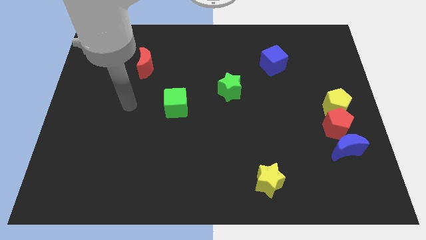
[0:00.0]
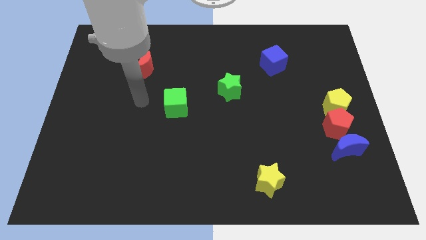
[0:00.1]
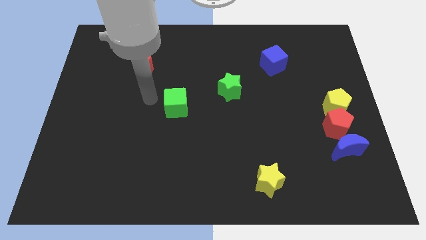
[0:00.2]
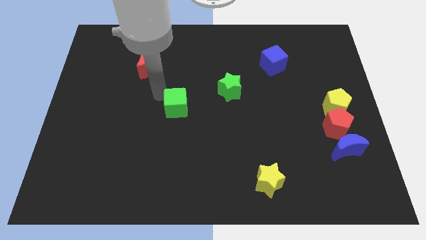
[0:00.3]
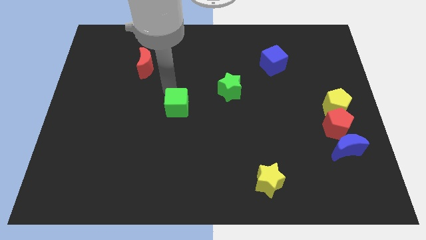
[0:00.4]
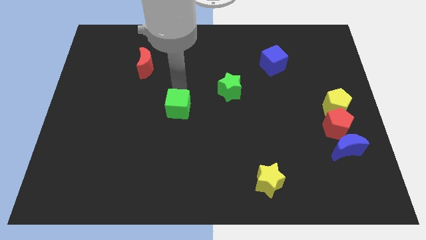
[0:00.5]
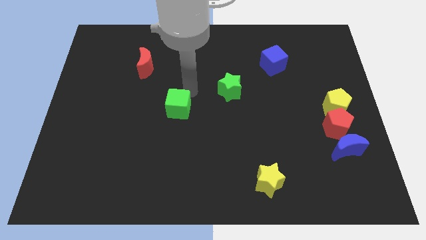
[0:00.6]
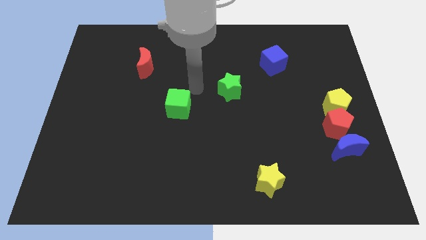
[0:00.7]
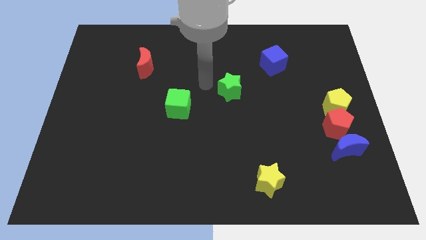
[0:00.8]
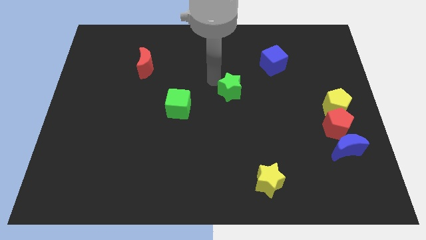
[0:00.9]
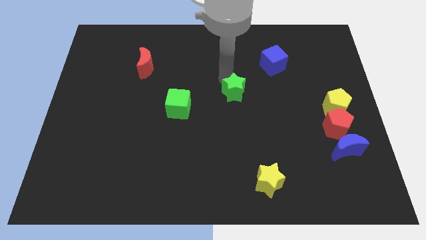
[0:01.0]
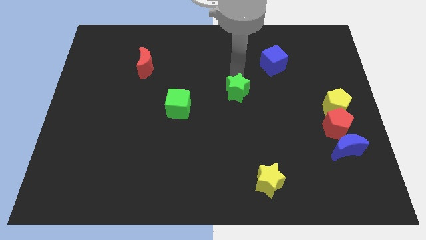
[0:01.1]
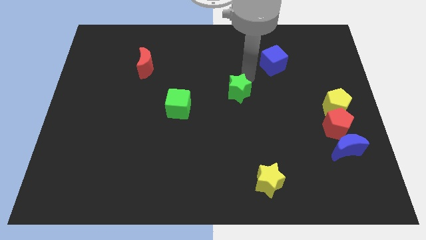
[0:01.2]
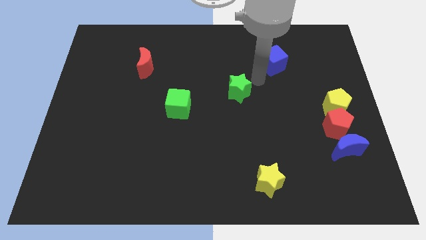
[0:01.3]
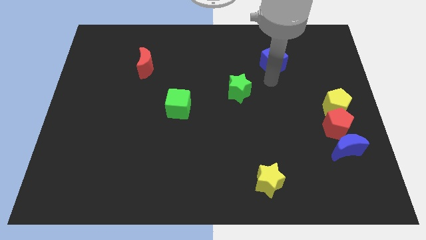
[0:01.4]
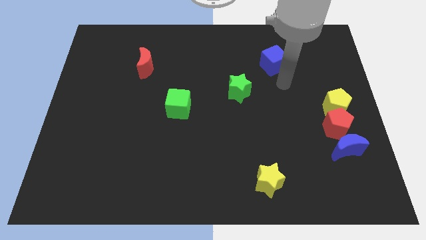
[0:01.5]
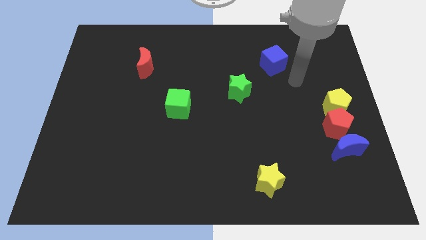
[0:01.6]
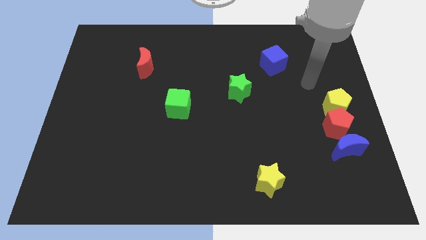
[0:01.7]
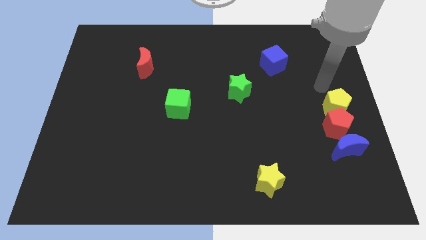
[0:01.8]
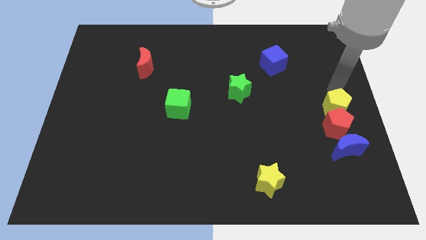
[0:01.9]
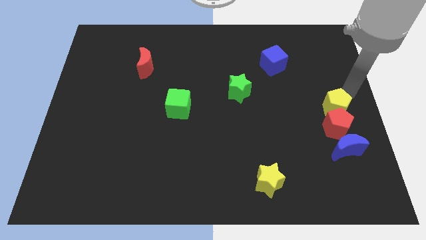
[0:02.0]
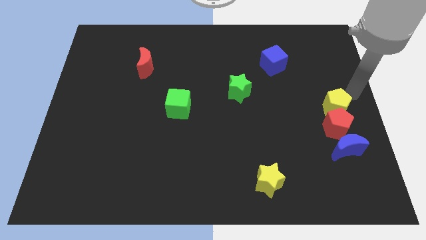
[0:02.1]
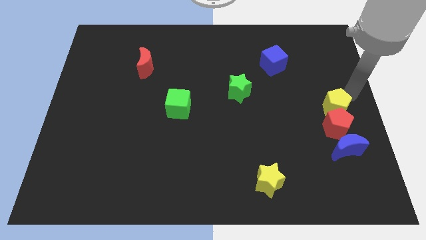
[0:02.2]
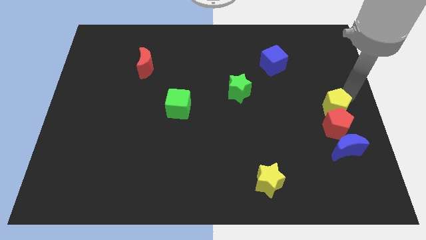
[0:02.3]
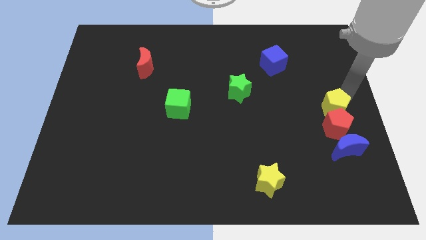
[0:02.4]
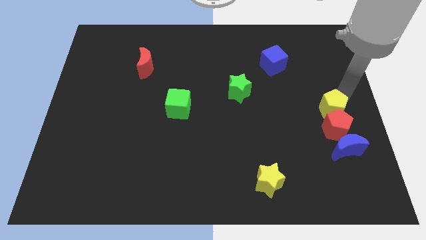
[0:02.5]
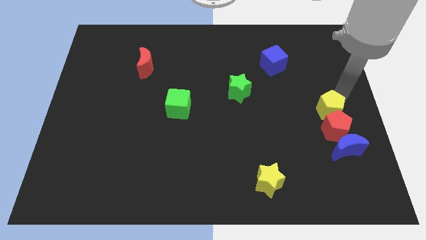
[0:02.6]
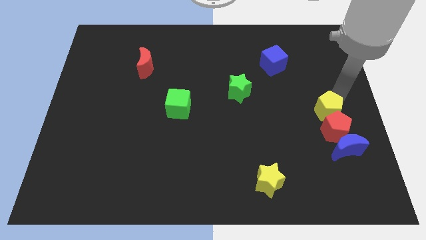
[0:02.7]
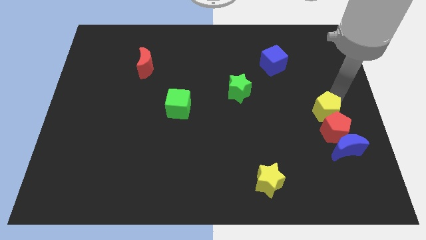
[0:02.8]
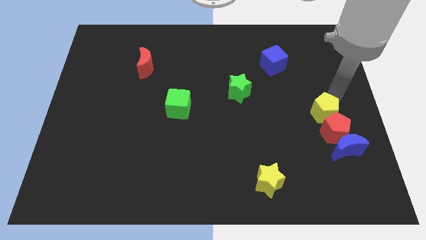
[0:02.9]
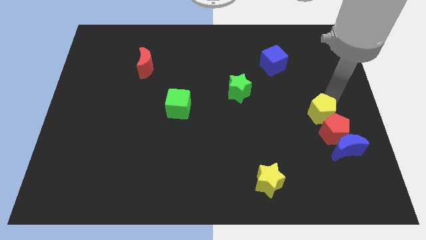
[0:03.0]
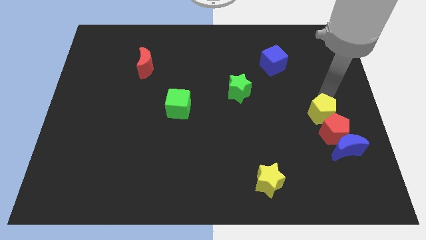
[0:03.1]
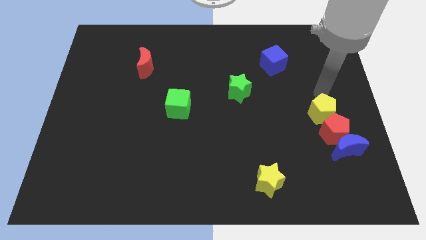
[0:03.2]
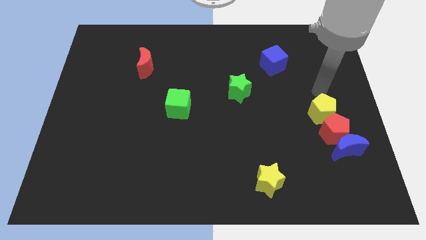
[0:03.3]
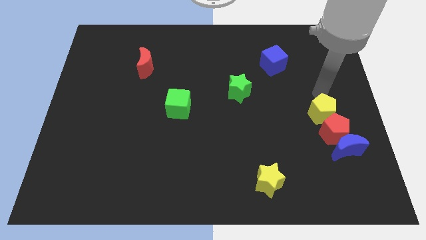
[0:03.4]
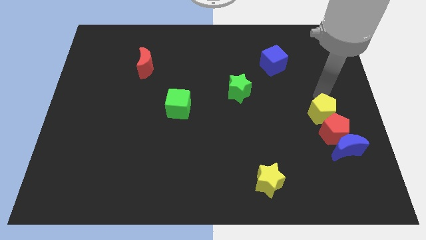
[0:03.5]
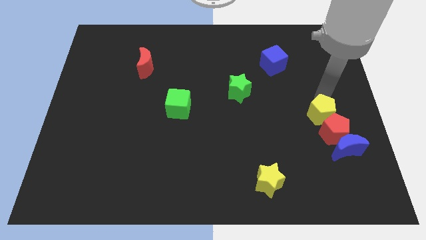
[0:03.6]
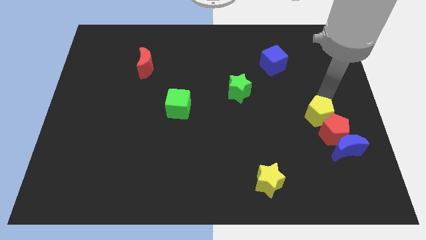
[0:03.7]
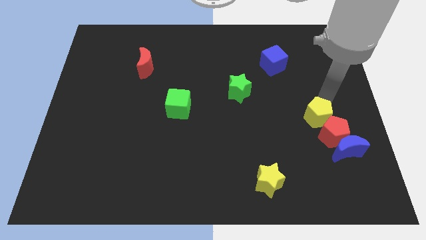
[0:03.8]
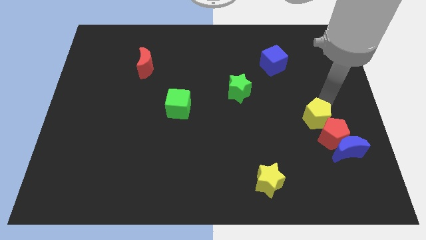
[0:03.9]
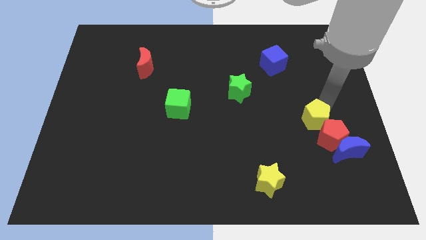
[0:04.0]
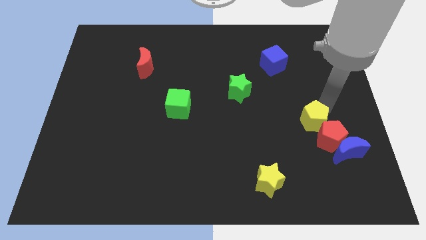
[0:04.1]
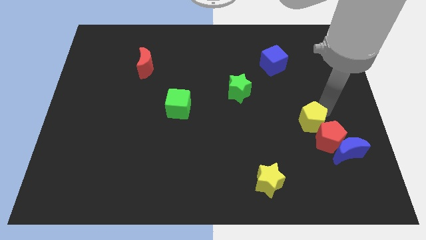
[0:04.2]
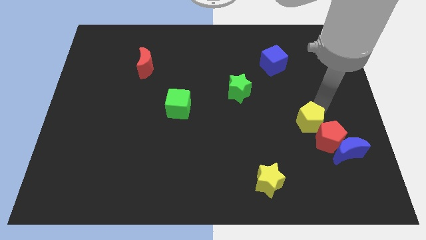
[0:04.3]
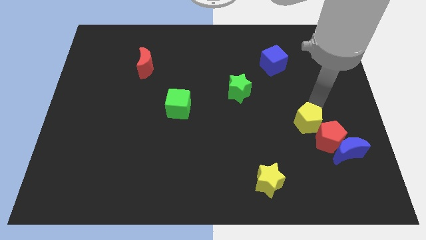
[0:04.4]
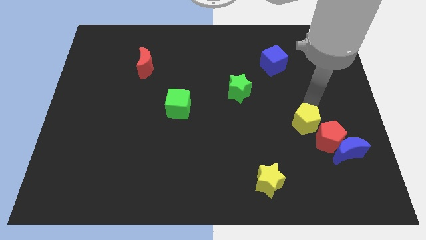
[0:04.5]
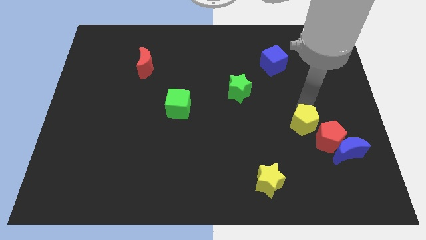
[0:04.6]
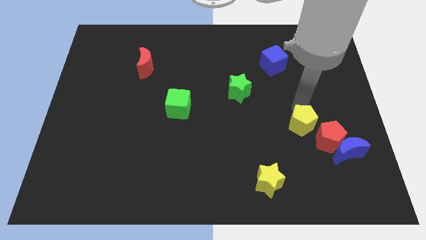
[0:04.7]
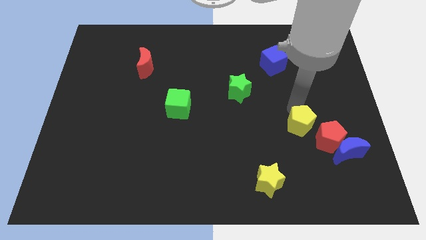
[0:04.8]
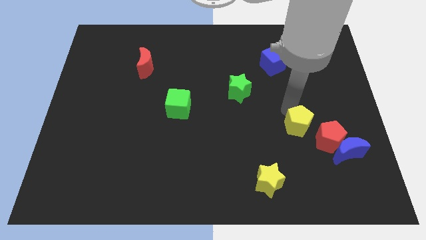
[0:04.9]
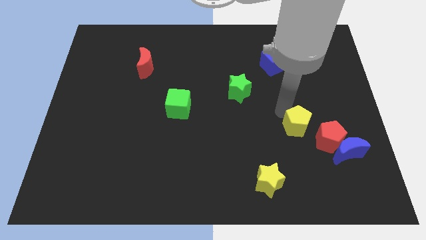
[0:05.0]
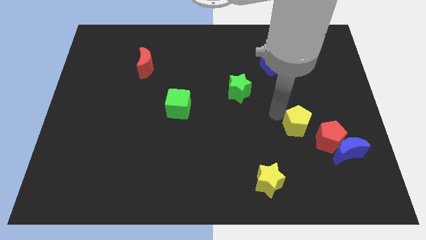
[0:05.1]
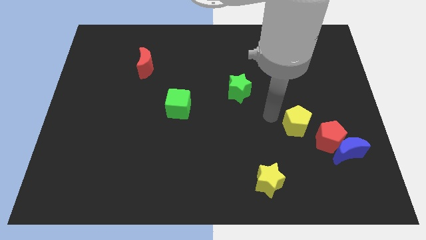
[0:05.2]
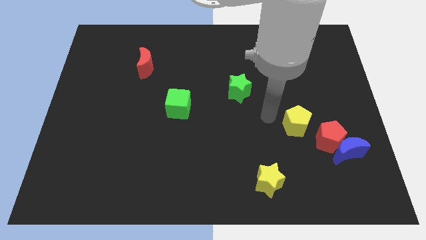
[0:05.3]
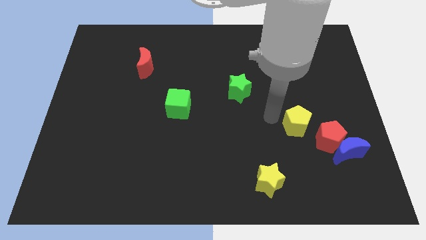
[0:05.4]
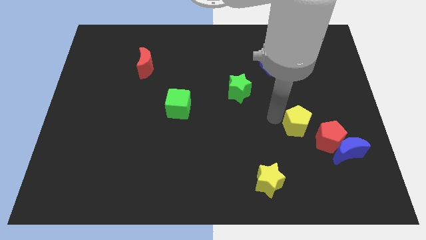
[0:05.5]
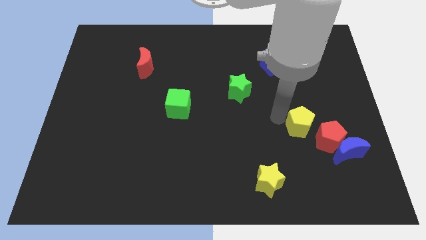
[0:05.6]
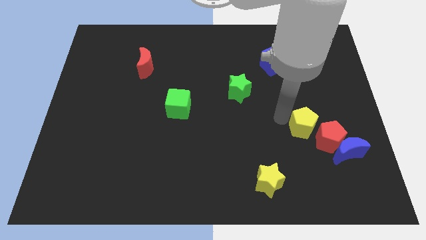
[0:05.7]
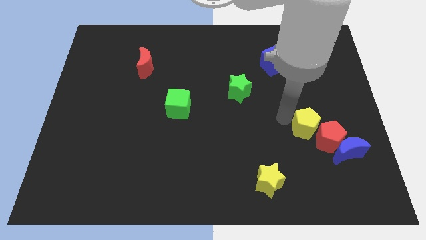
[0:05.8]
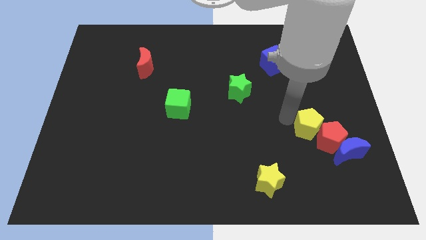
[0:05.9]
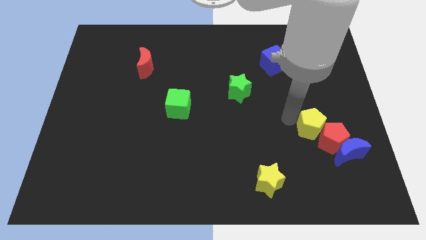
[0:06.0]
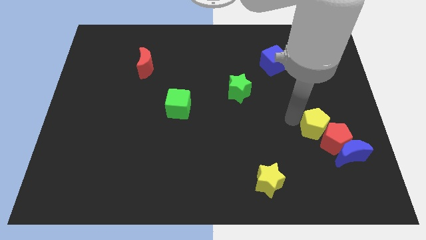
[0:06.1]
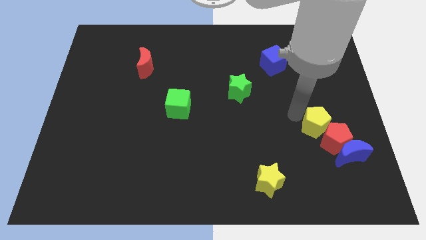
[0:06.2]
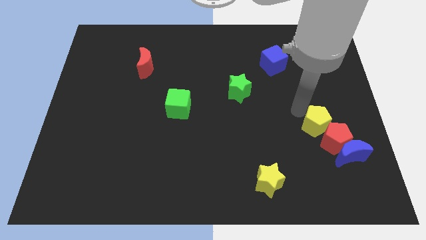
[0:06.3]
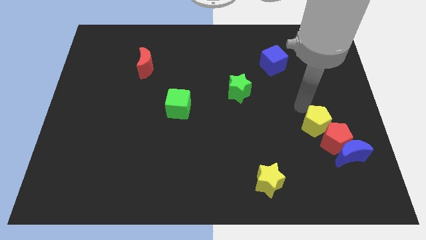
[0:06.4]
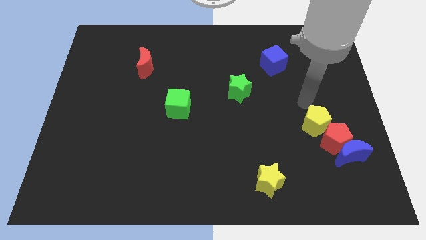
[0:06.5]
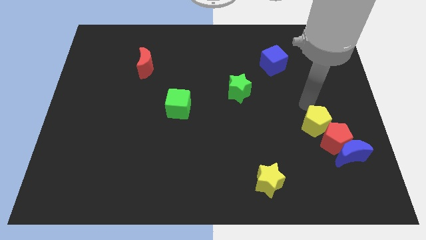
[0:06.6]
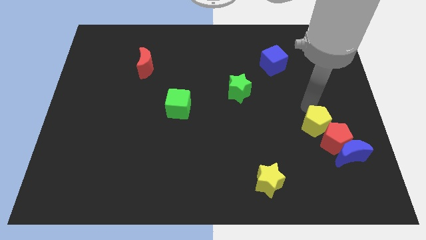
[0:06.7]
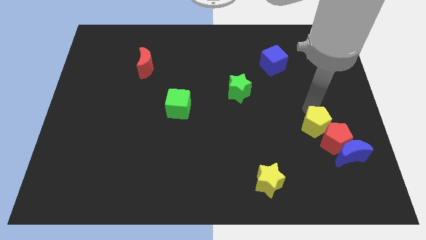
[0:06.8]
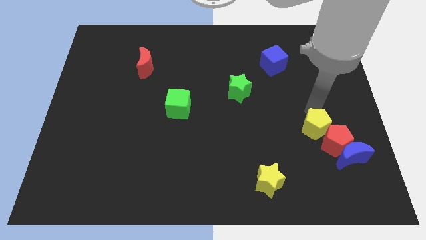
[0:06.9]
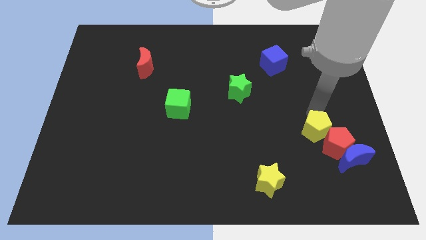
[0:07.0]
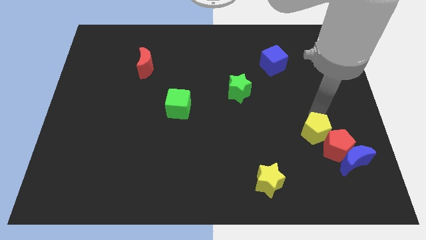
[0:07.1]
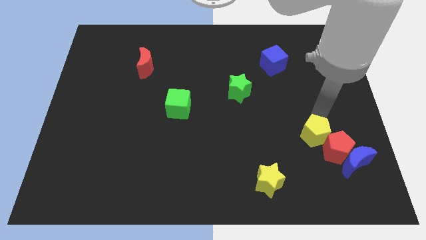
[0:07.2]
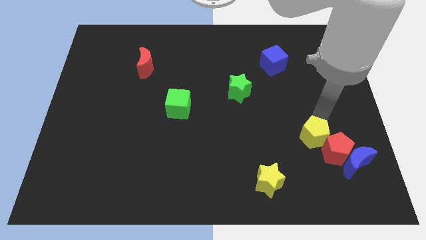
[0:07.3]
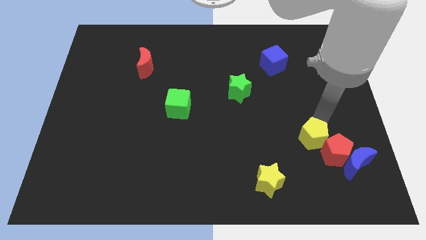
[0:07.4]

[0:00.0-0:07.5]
slide the yellow pentagon a bit downwards

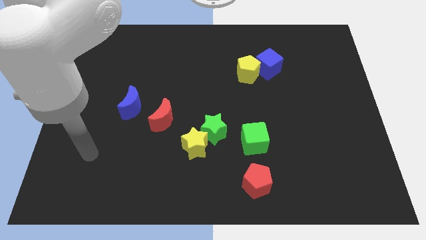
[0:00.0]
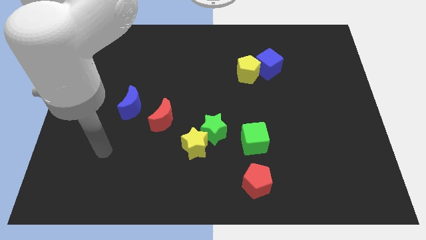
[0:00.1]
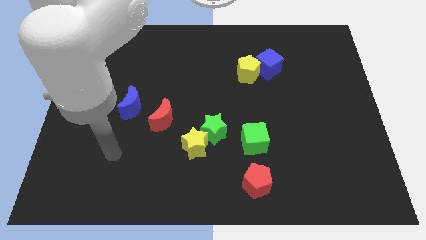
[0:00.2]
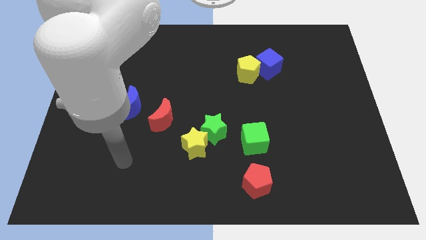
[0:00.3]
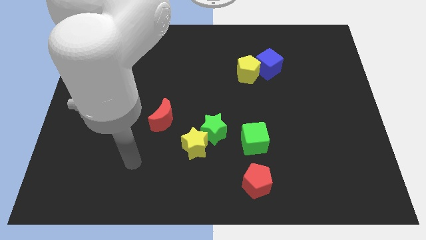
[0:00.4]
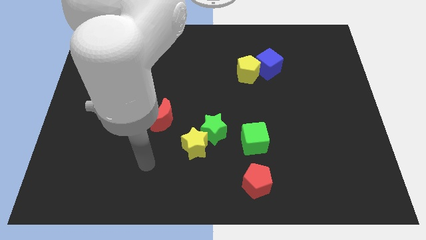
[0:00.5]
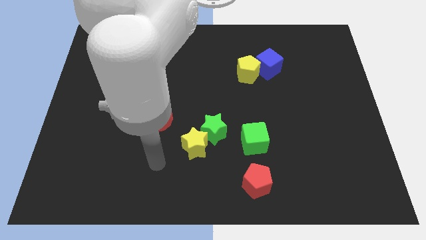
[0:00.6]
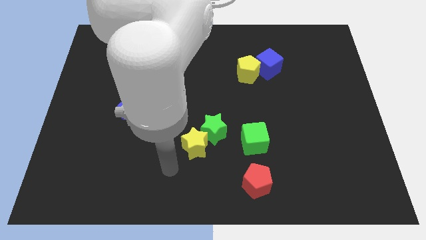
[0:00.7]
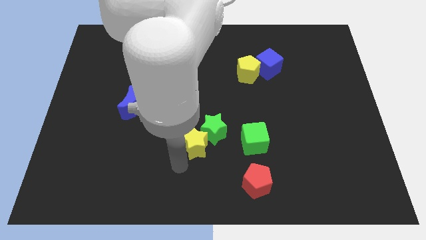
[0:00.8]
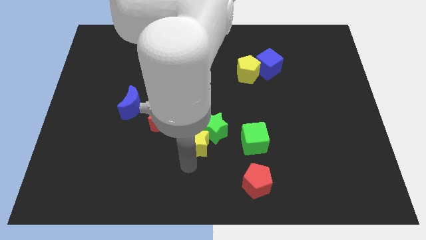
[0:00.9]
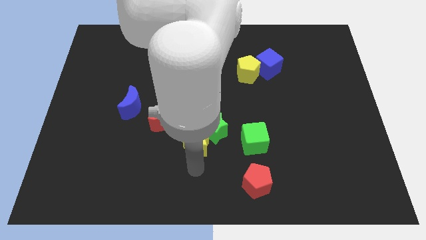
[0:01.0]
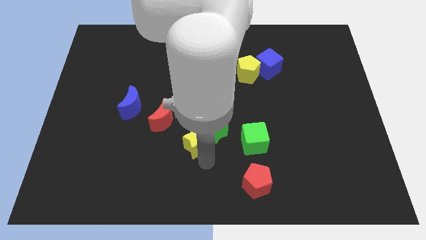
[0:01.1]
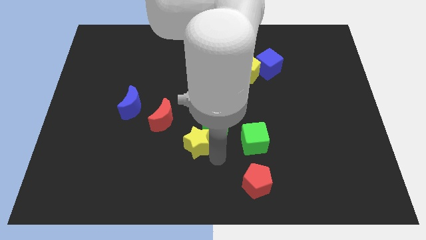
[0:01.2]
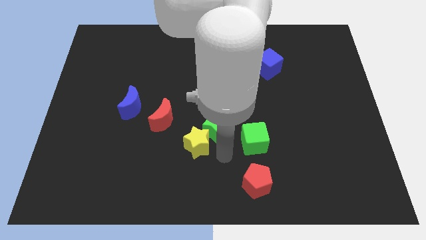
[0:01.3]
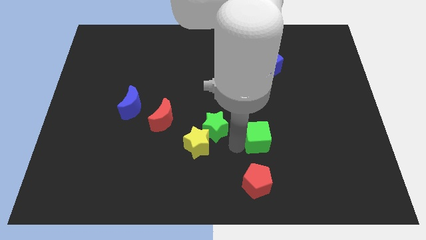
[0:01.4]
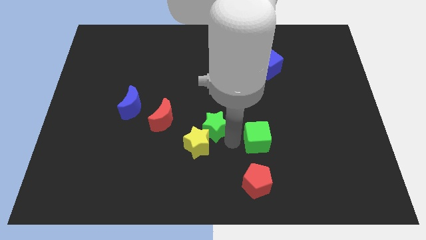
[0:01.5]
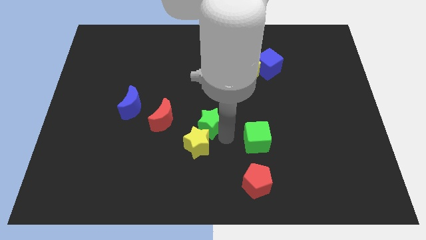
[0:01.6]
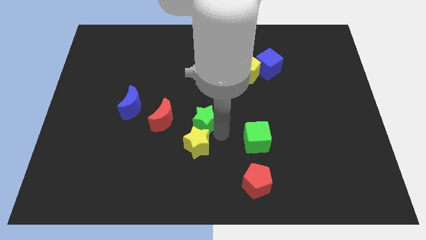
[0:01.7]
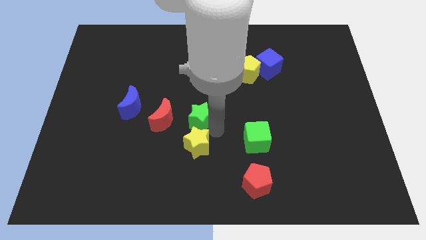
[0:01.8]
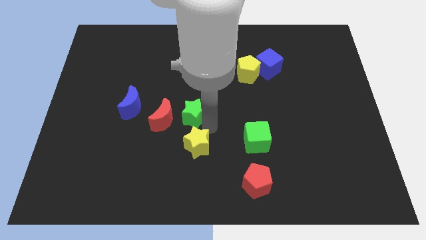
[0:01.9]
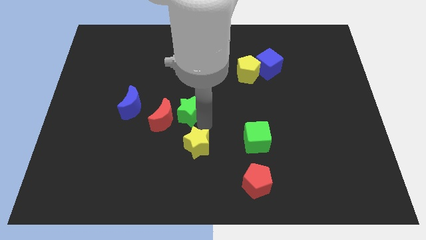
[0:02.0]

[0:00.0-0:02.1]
push the green star a bit diagonally upwards and left
